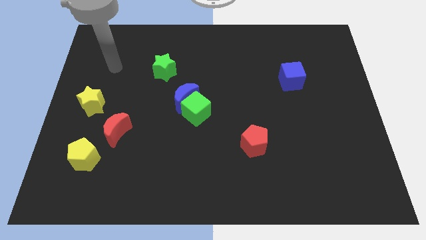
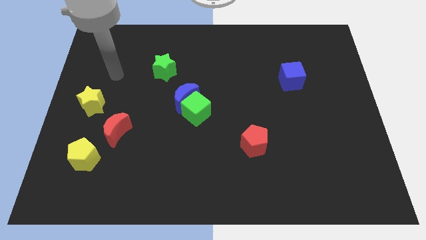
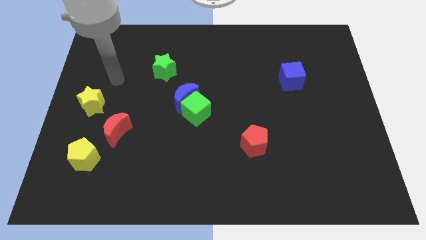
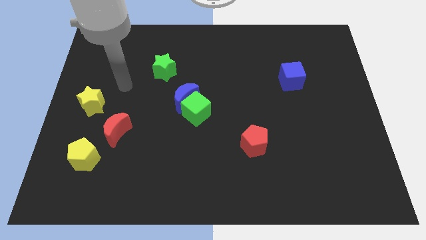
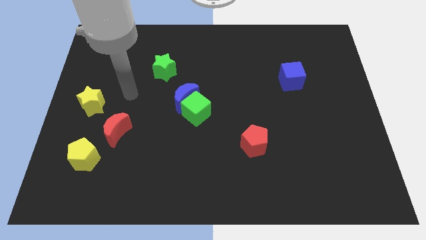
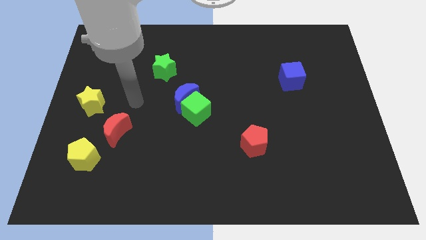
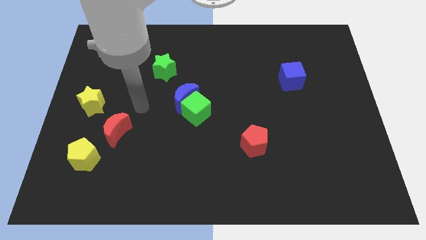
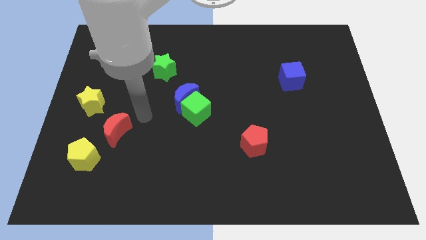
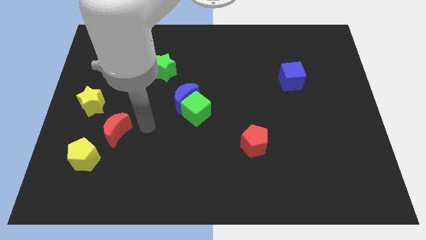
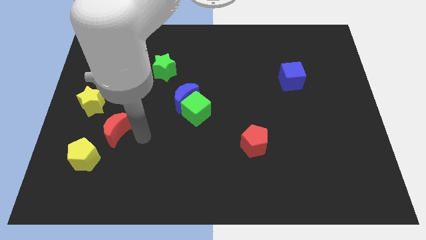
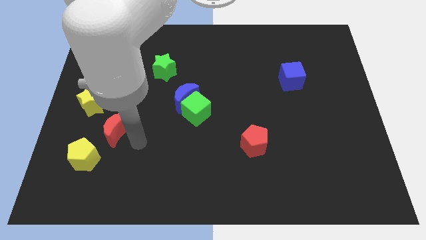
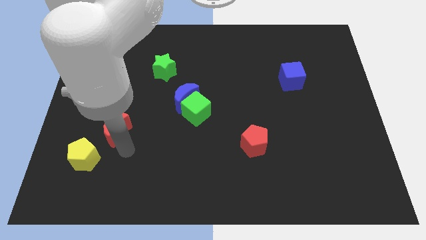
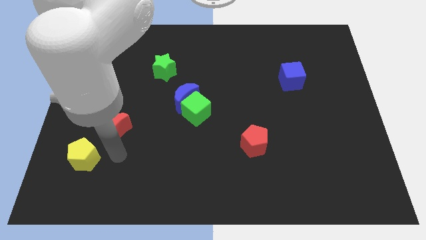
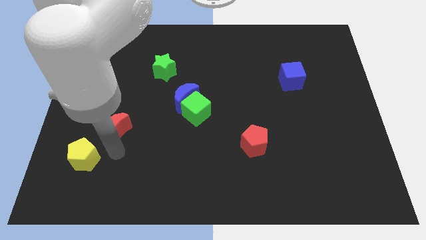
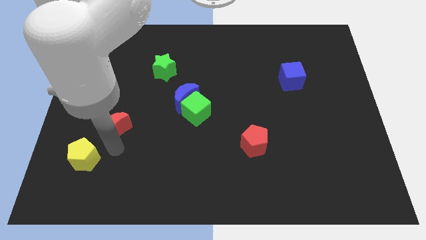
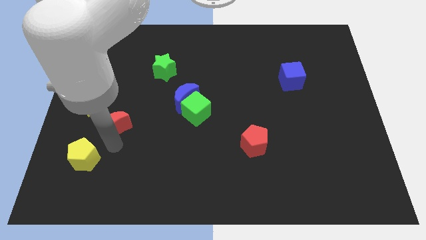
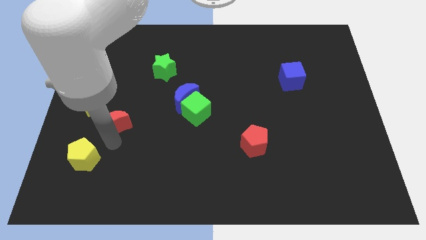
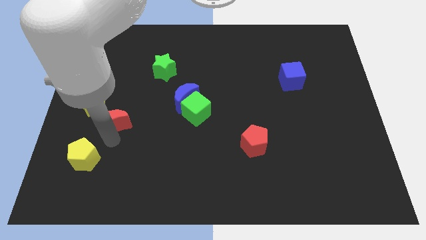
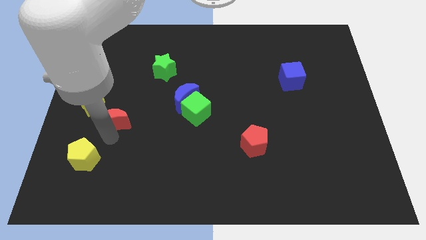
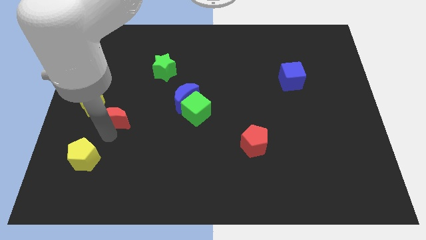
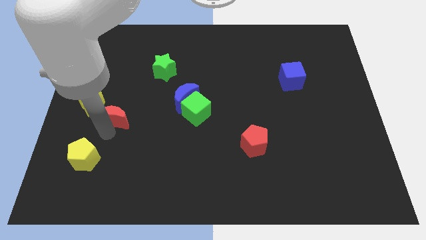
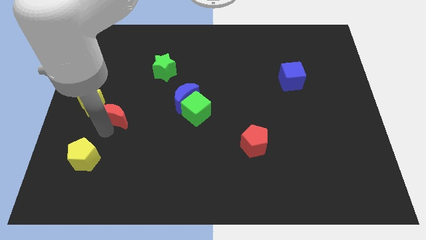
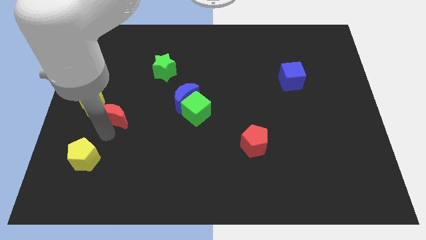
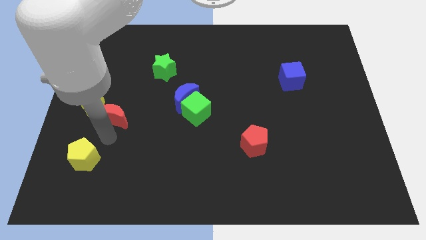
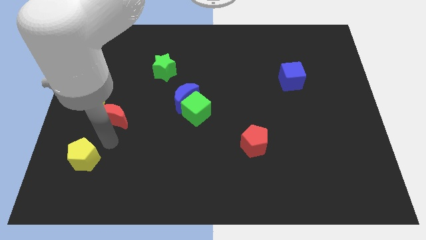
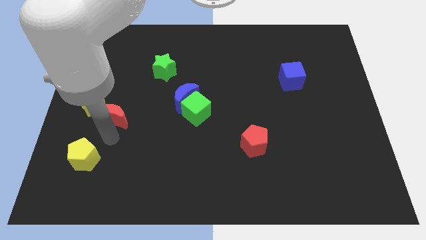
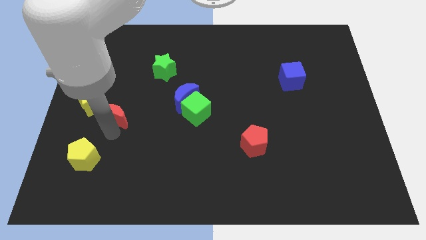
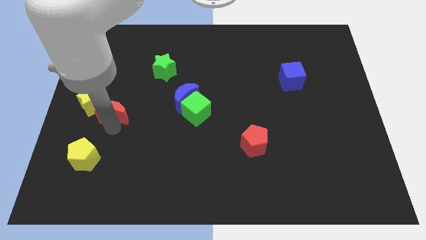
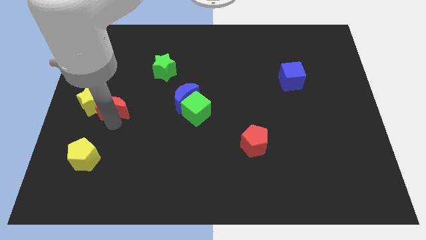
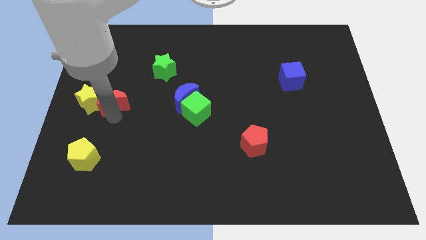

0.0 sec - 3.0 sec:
push the red moon up a little bit

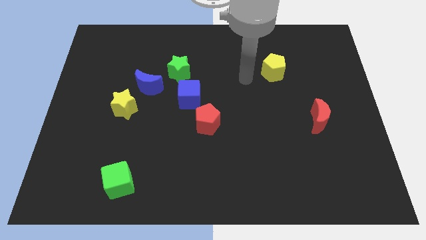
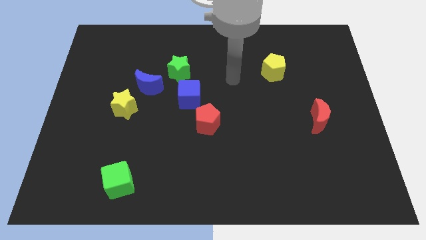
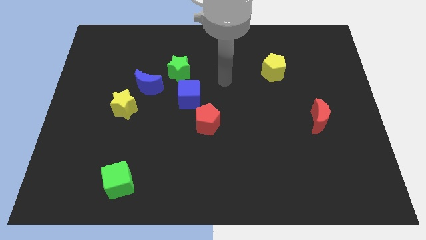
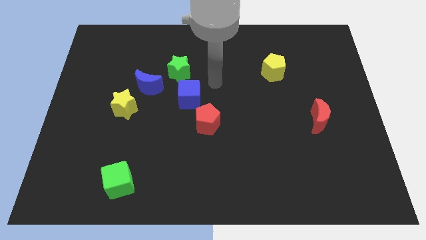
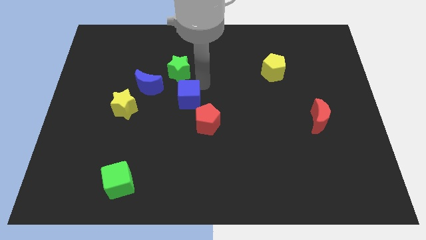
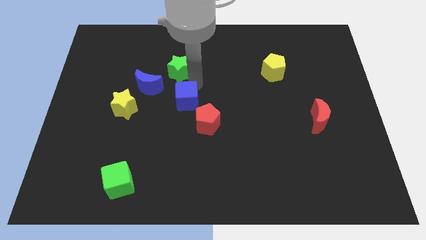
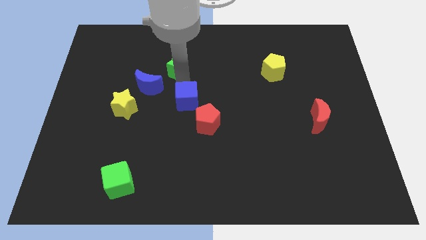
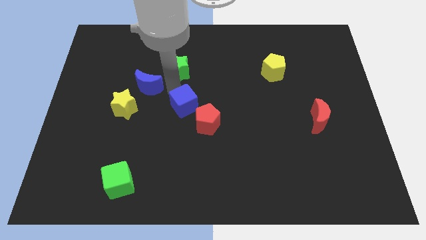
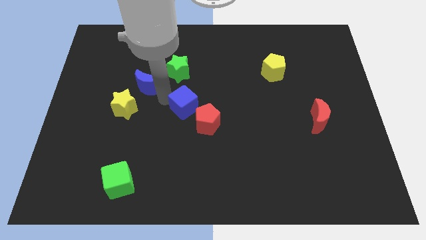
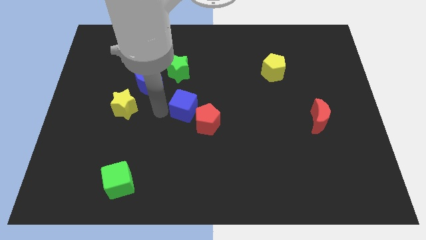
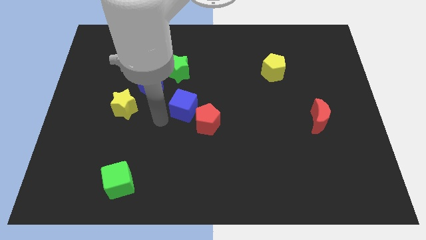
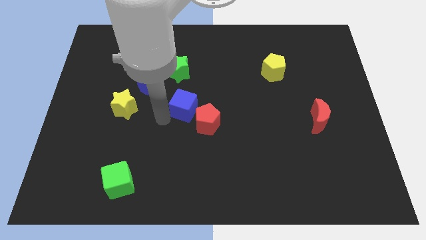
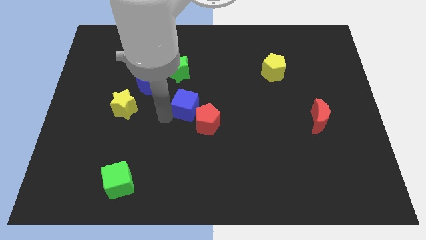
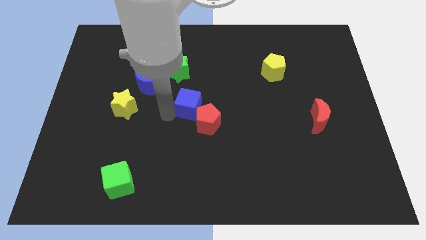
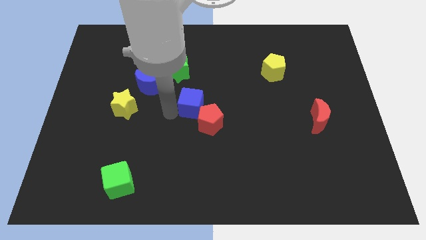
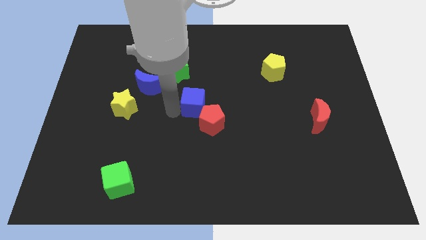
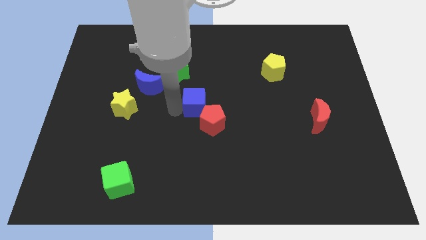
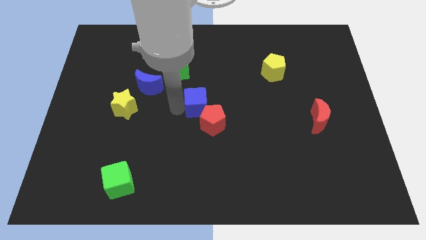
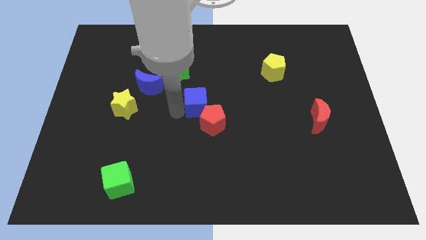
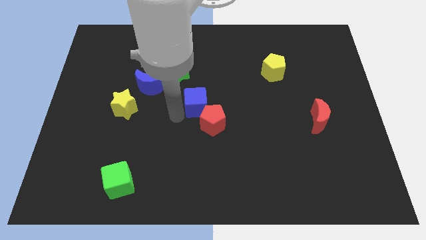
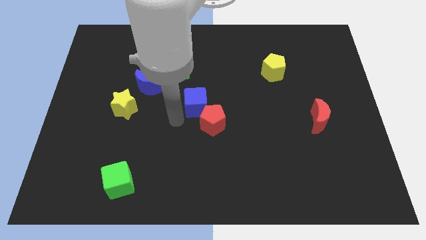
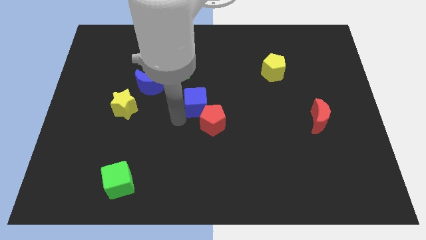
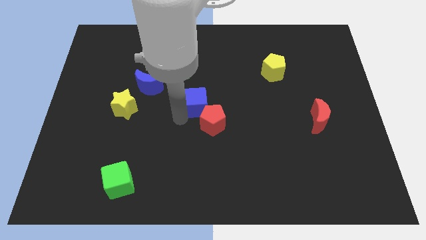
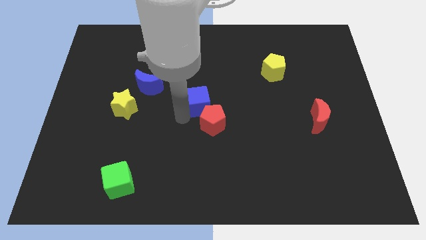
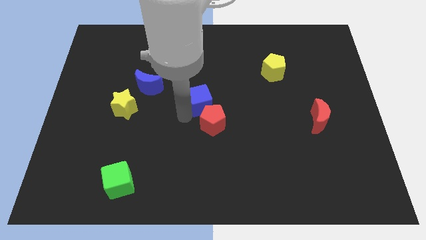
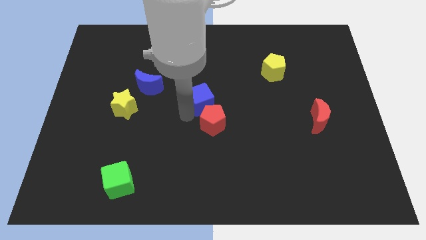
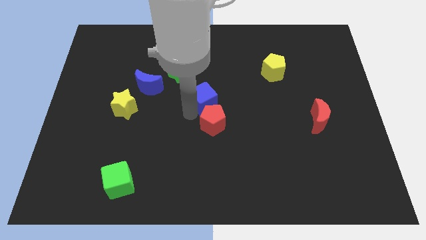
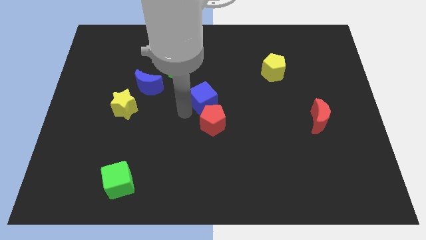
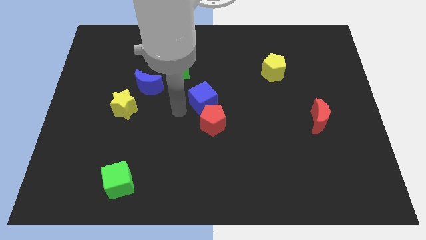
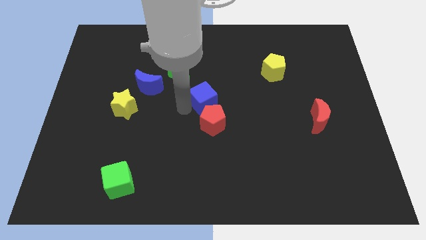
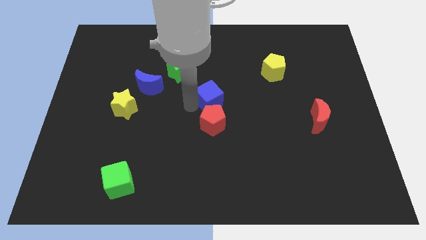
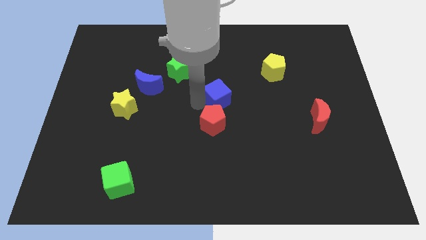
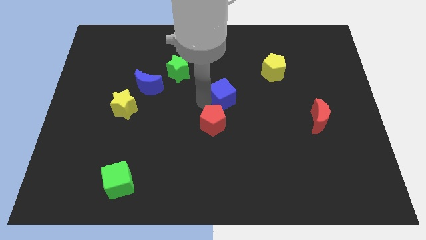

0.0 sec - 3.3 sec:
push the blue cube somewhat right

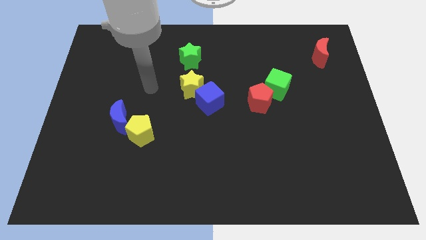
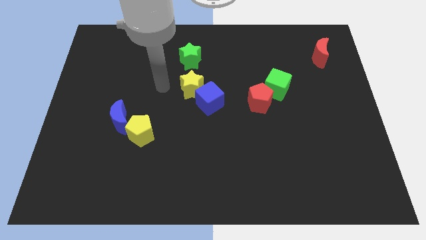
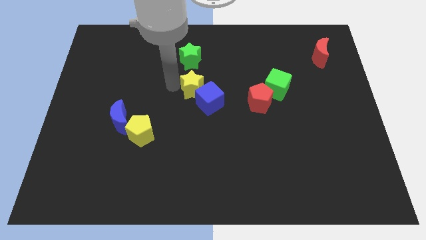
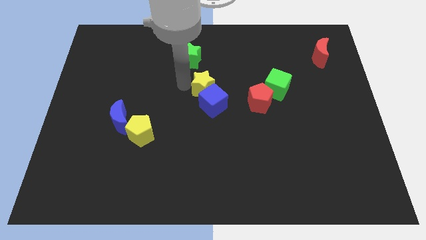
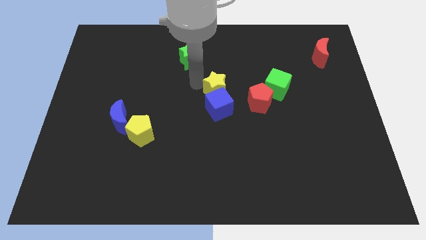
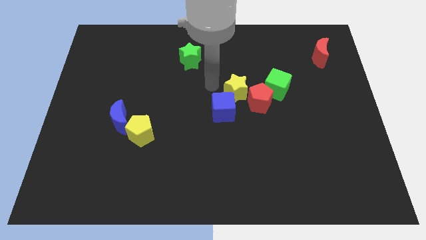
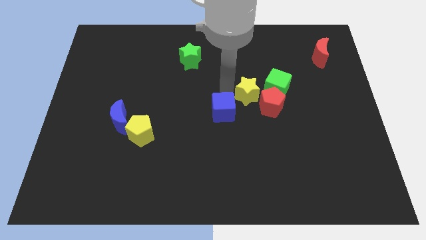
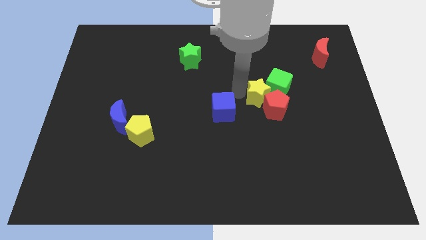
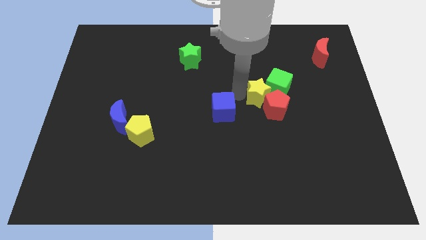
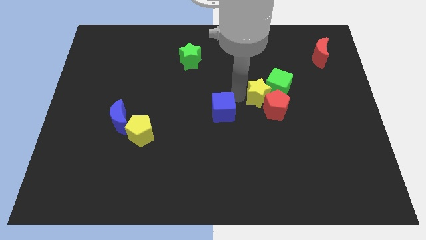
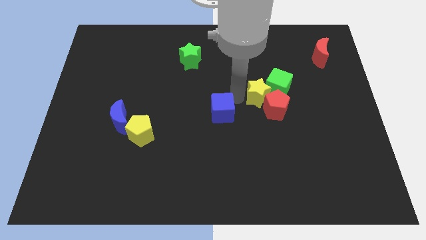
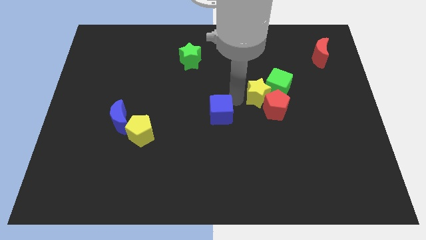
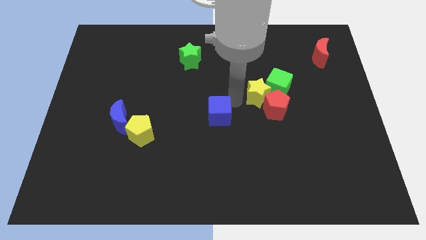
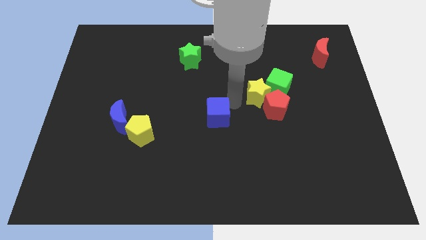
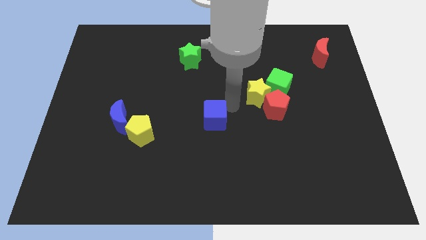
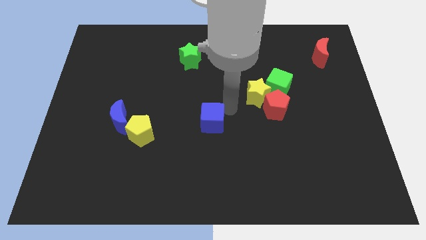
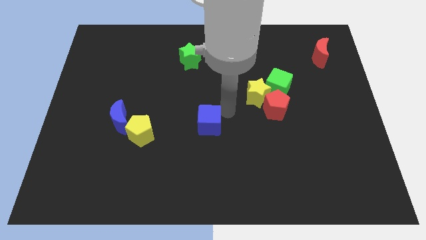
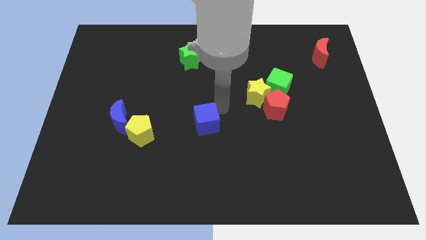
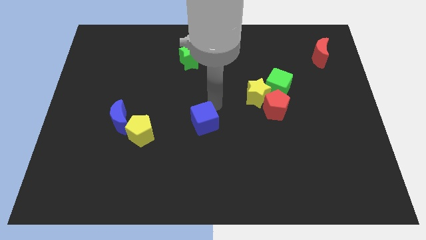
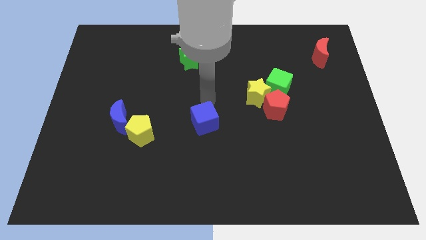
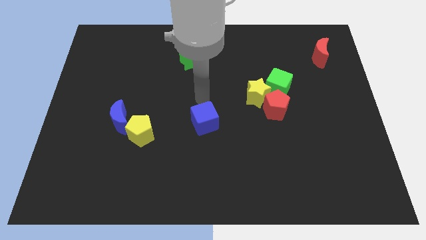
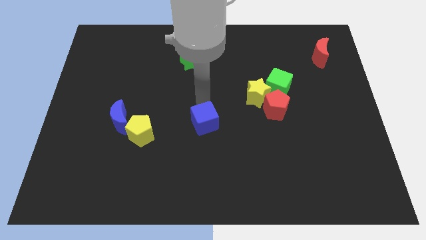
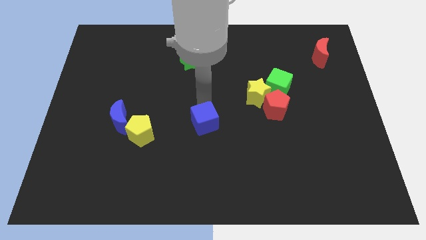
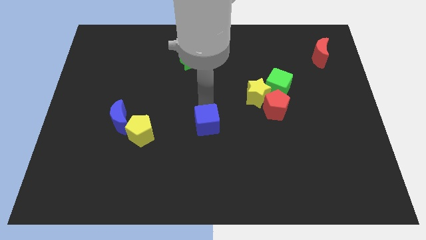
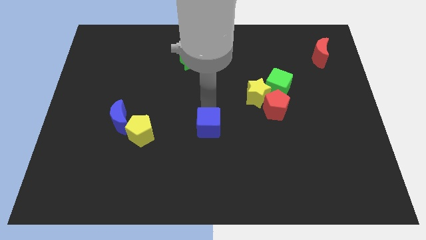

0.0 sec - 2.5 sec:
push the blue cube slightly downwards
